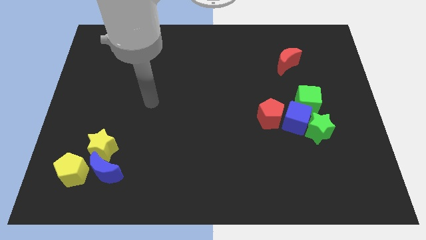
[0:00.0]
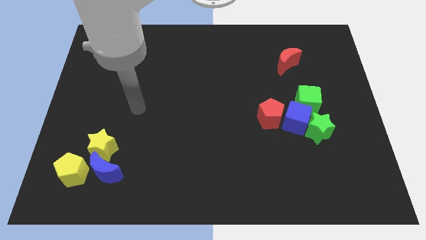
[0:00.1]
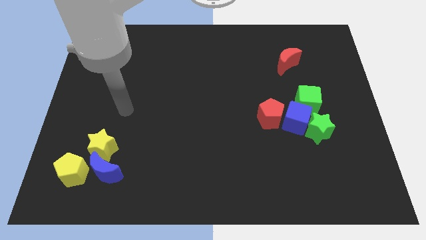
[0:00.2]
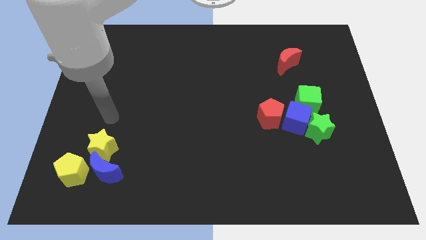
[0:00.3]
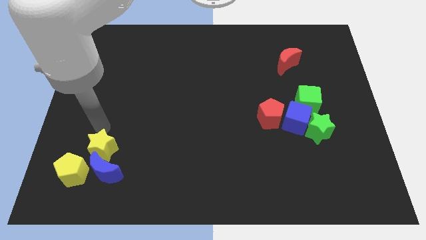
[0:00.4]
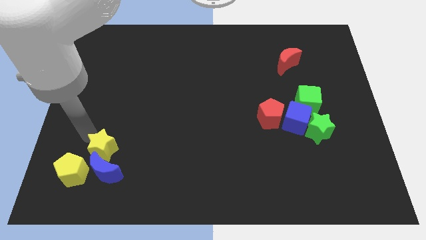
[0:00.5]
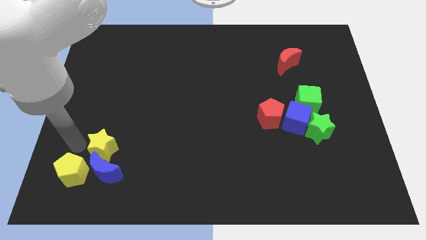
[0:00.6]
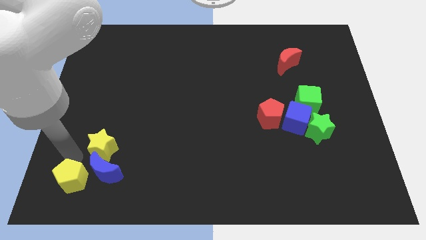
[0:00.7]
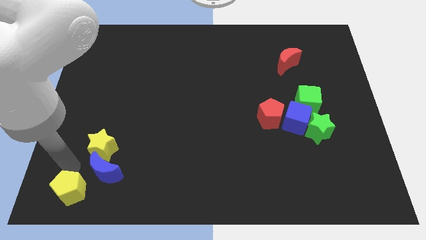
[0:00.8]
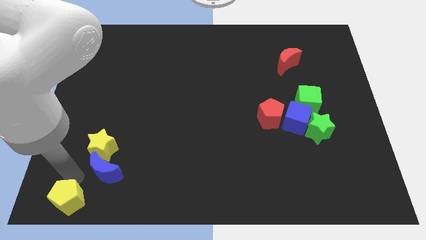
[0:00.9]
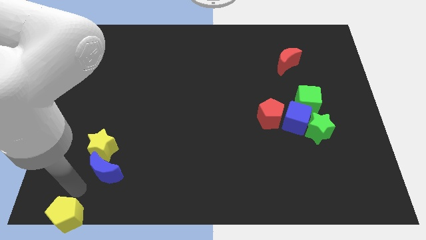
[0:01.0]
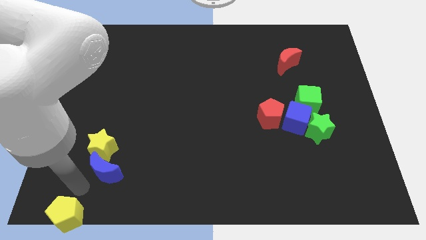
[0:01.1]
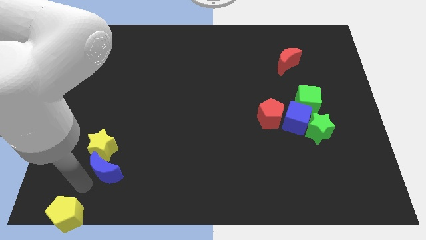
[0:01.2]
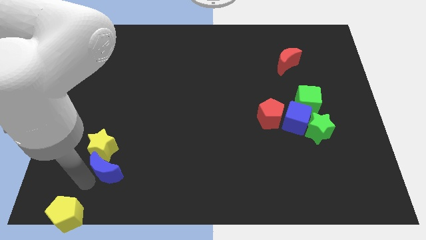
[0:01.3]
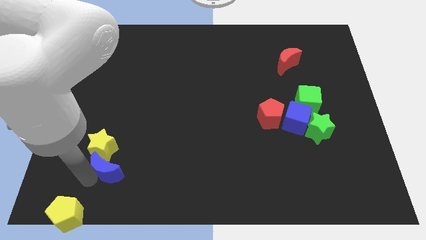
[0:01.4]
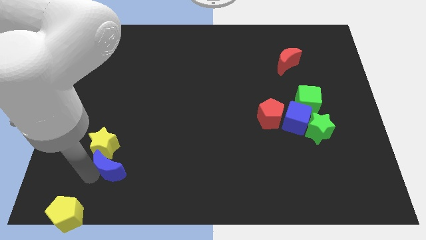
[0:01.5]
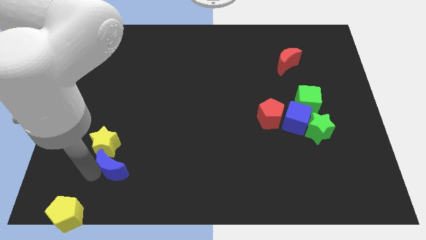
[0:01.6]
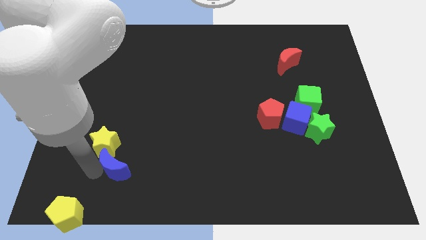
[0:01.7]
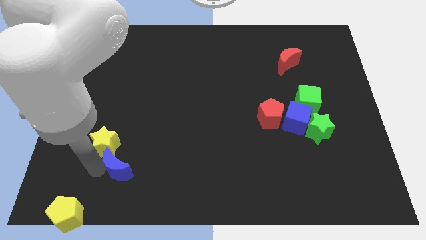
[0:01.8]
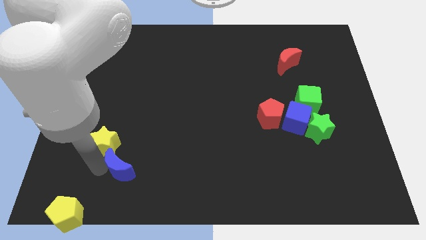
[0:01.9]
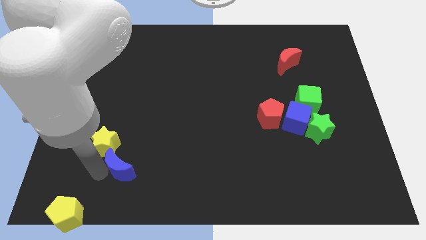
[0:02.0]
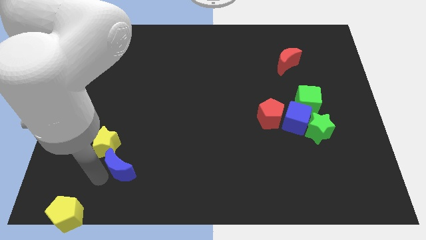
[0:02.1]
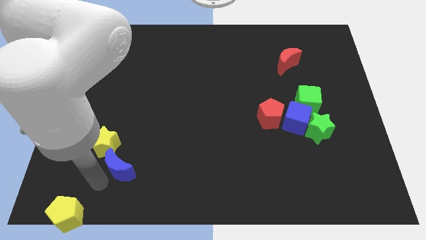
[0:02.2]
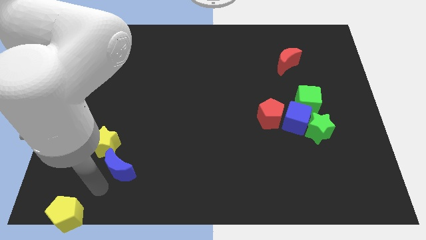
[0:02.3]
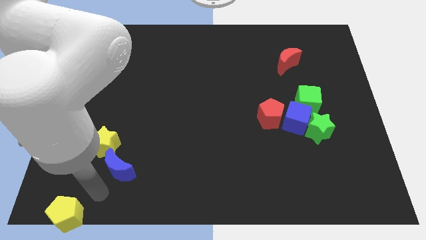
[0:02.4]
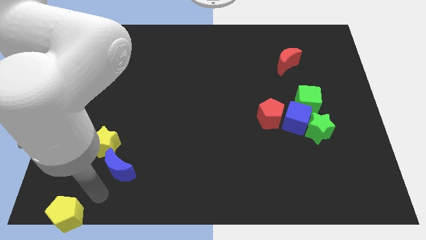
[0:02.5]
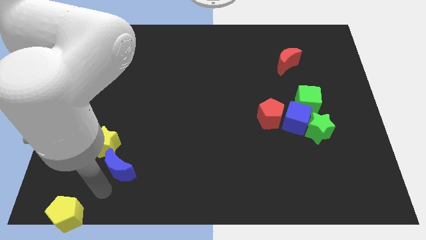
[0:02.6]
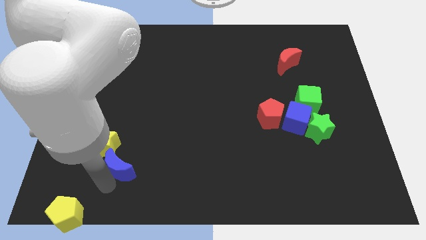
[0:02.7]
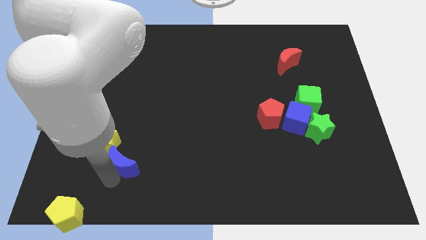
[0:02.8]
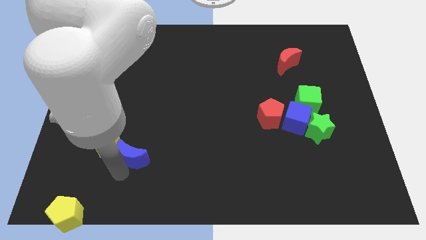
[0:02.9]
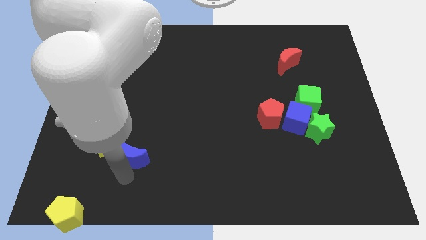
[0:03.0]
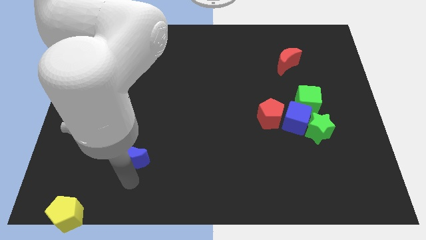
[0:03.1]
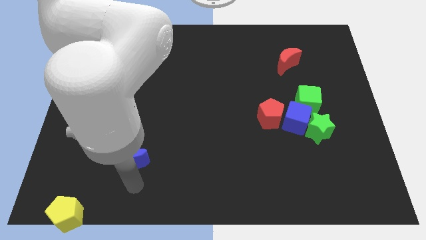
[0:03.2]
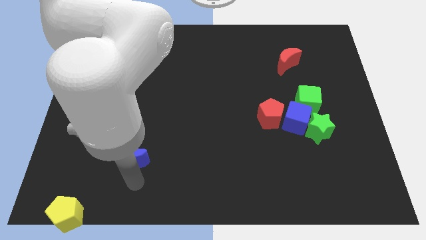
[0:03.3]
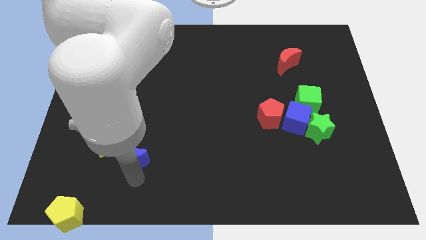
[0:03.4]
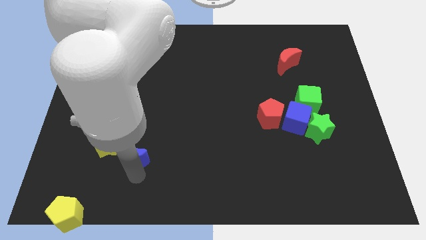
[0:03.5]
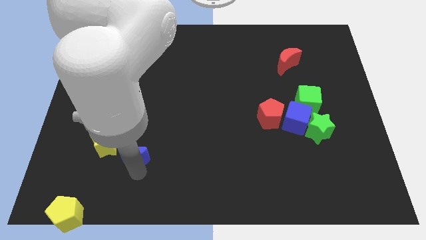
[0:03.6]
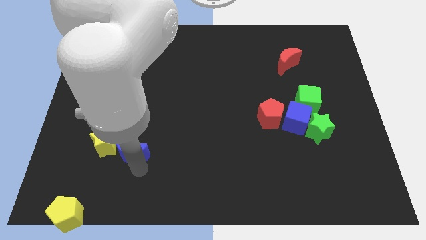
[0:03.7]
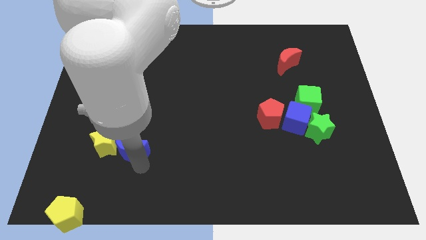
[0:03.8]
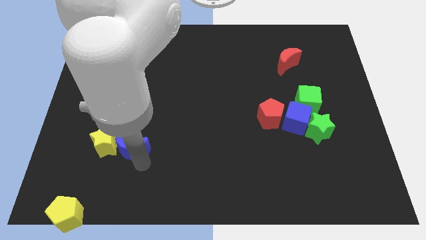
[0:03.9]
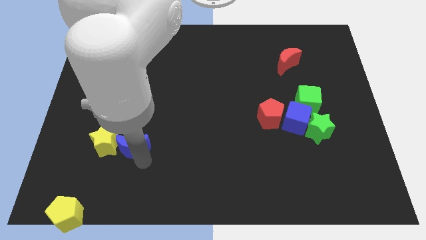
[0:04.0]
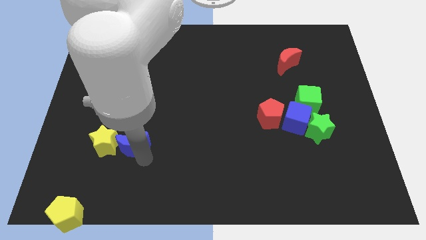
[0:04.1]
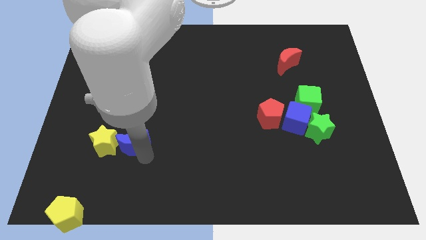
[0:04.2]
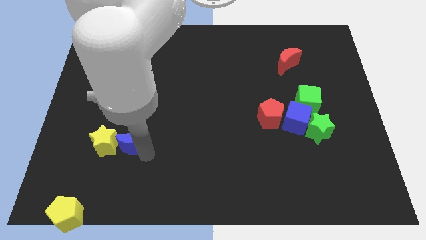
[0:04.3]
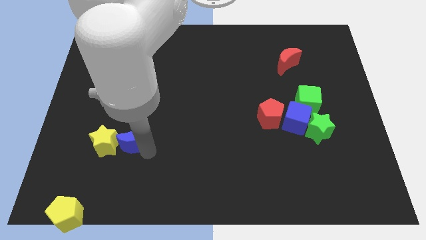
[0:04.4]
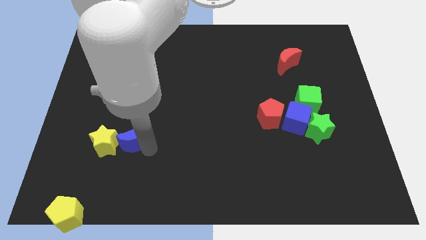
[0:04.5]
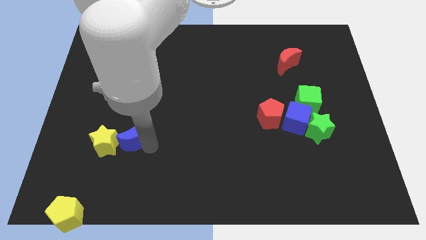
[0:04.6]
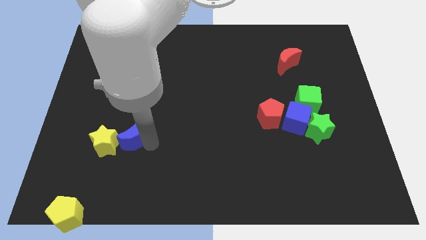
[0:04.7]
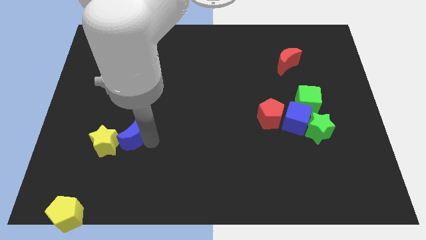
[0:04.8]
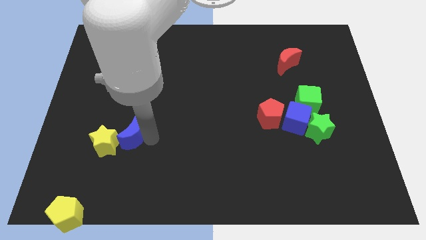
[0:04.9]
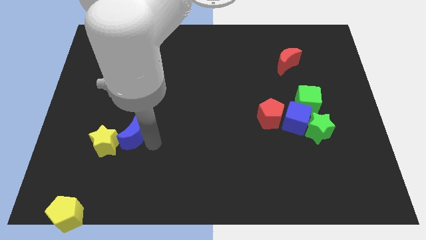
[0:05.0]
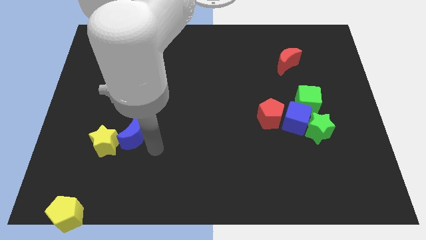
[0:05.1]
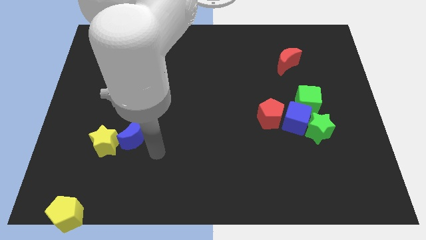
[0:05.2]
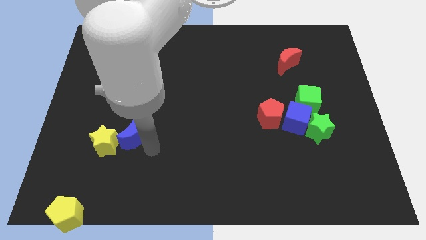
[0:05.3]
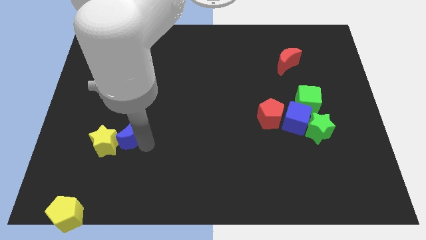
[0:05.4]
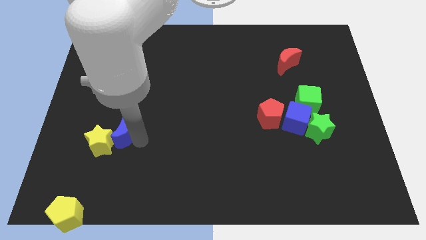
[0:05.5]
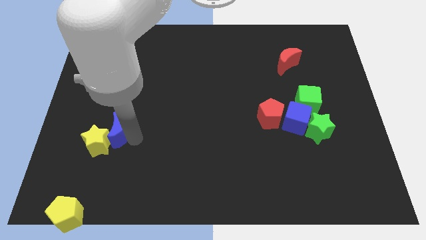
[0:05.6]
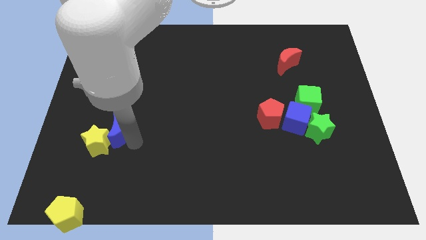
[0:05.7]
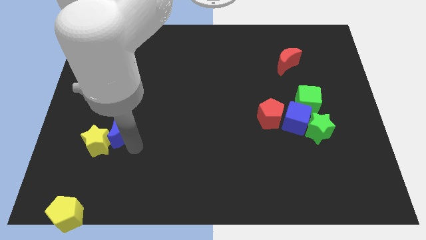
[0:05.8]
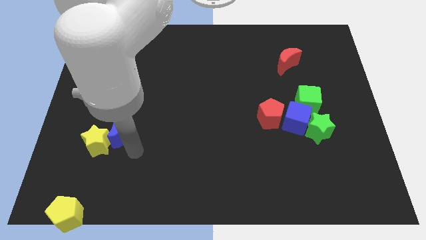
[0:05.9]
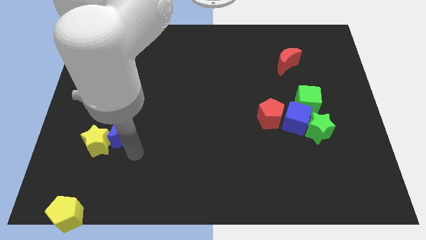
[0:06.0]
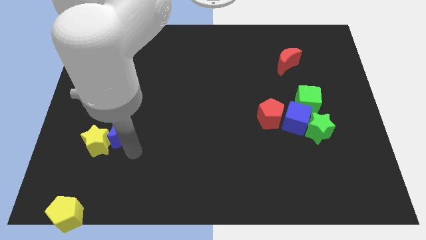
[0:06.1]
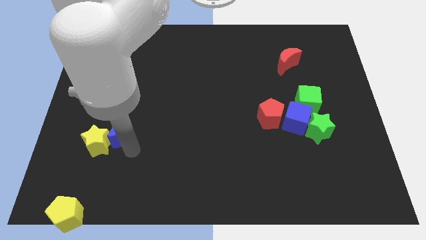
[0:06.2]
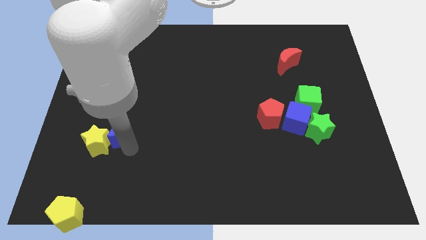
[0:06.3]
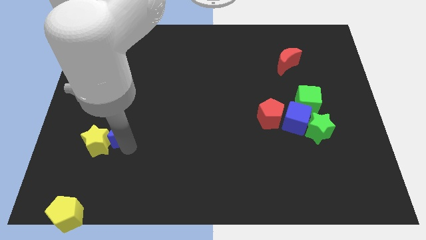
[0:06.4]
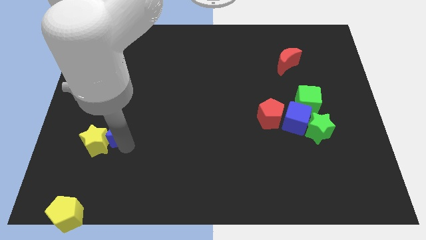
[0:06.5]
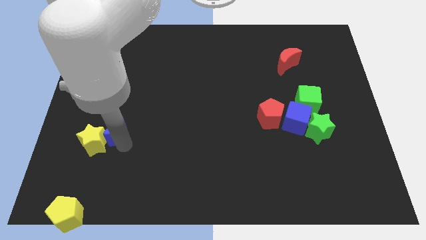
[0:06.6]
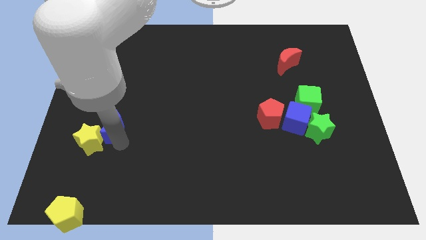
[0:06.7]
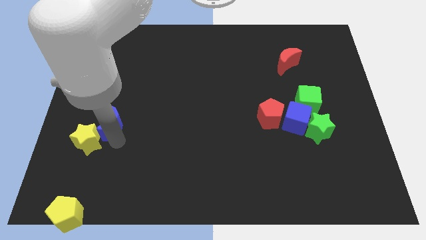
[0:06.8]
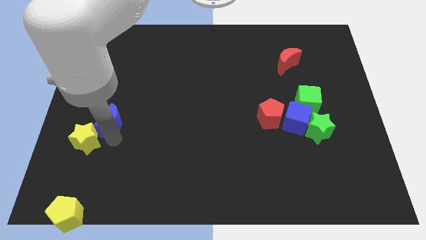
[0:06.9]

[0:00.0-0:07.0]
move the blue moon to the top side of the yellow star

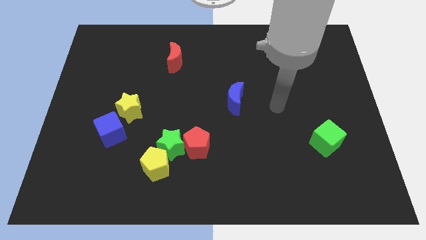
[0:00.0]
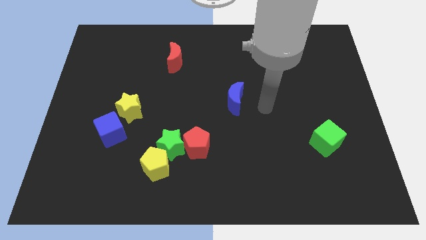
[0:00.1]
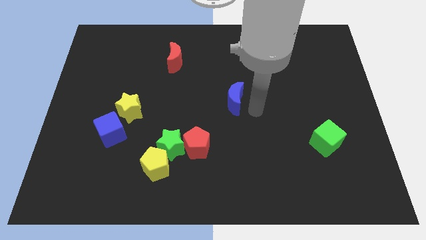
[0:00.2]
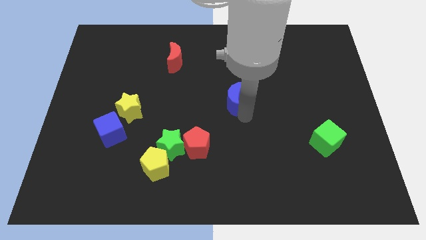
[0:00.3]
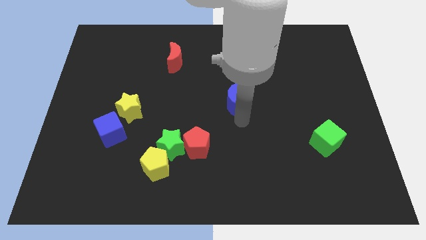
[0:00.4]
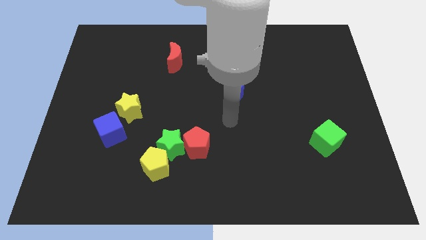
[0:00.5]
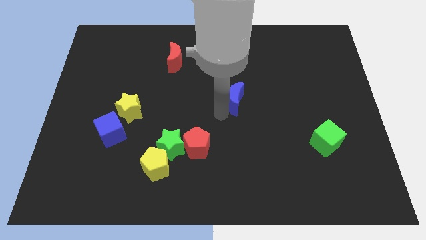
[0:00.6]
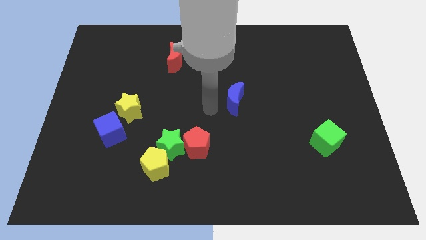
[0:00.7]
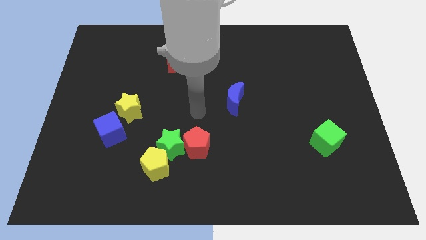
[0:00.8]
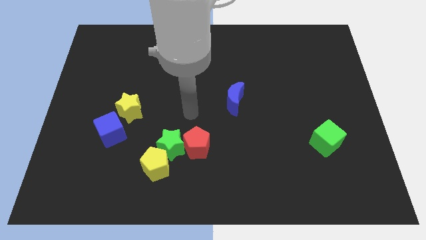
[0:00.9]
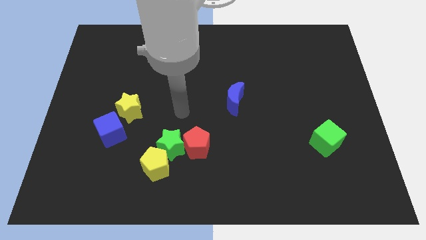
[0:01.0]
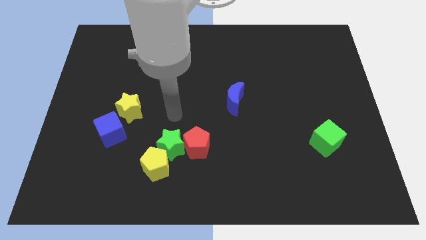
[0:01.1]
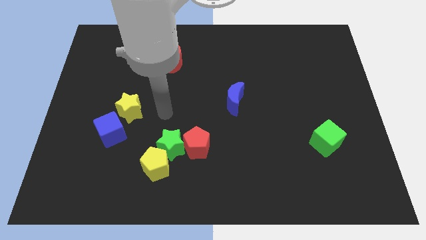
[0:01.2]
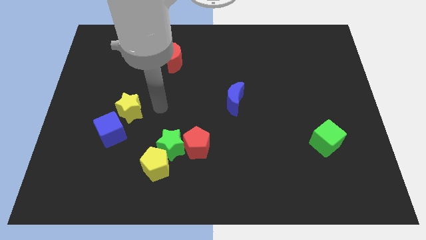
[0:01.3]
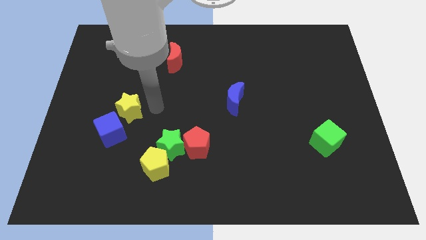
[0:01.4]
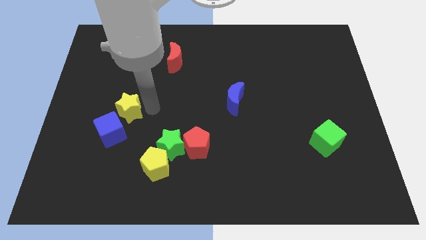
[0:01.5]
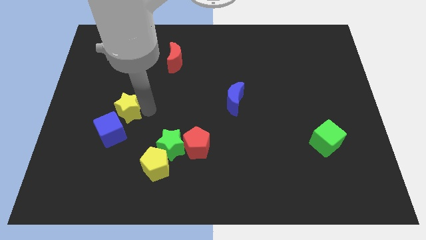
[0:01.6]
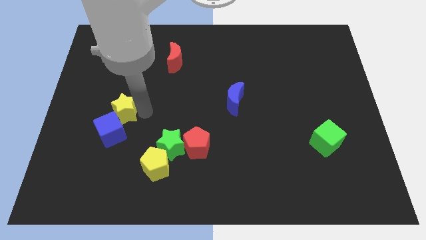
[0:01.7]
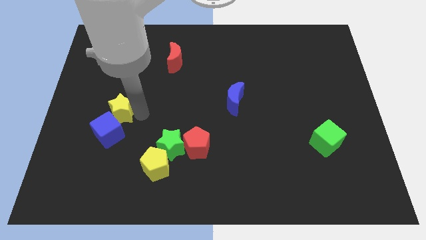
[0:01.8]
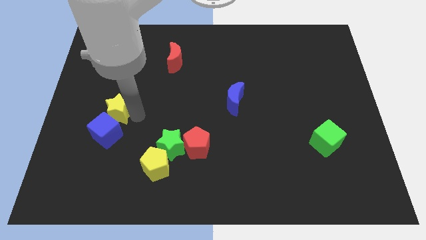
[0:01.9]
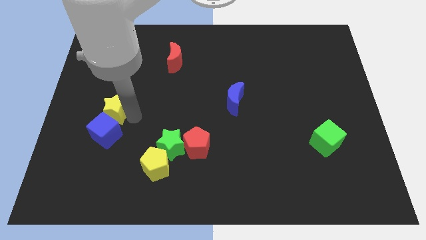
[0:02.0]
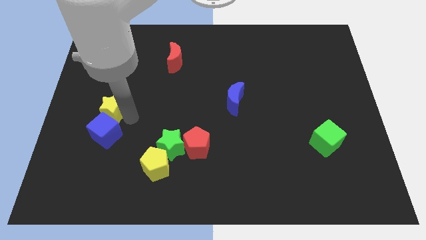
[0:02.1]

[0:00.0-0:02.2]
push the yellow star to the top left of the blue cube
